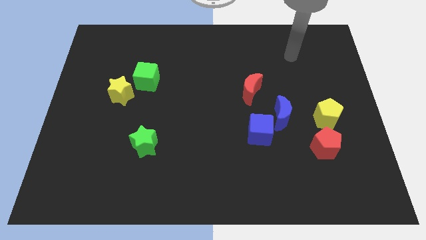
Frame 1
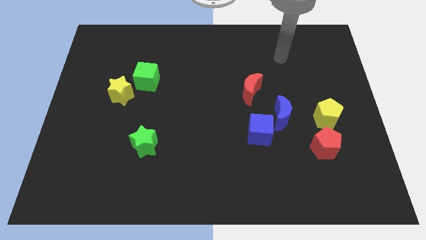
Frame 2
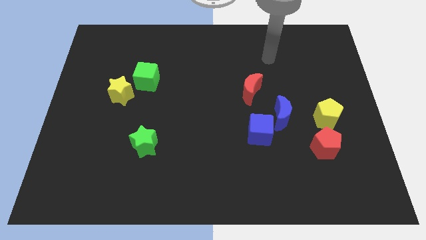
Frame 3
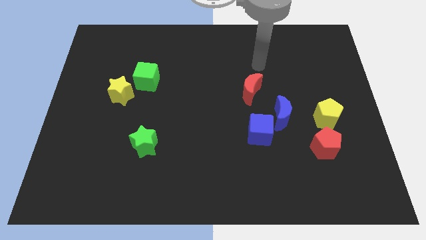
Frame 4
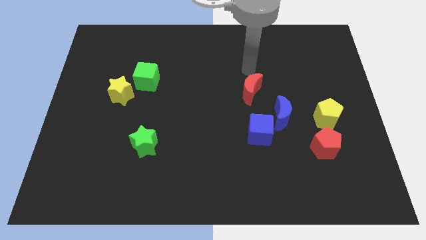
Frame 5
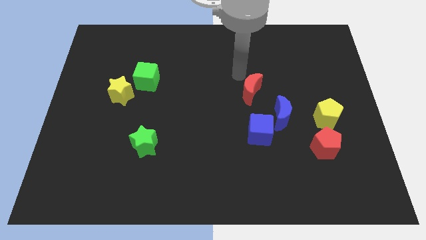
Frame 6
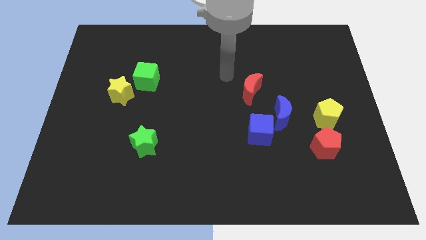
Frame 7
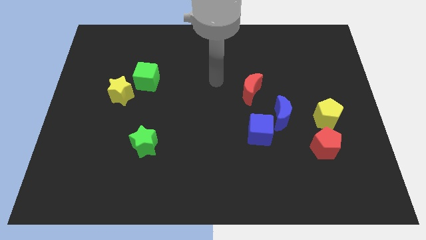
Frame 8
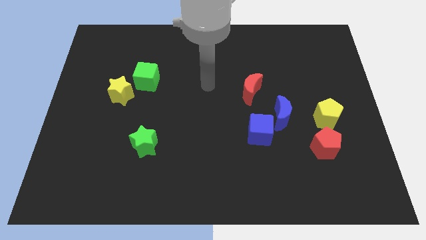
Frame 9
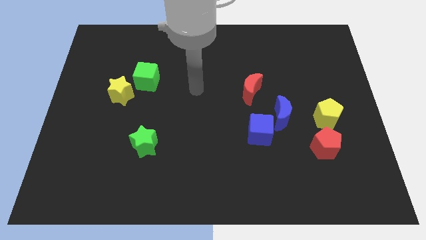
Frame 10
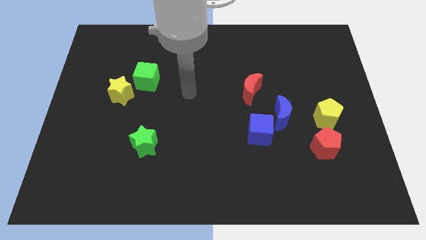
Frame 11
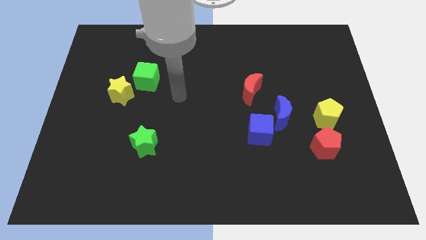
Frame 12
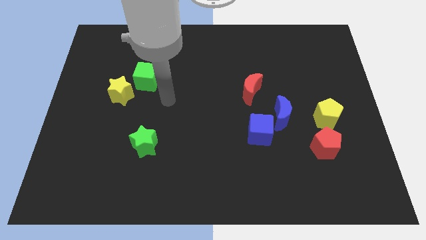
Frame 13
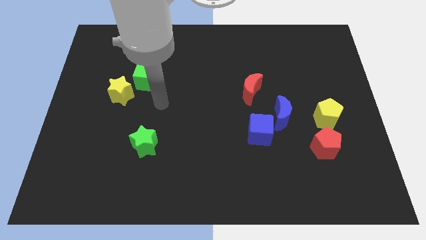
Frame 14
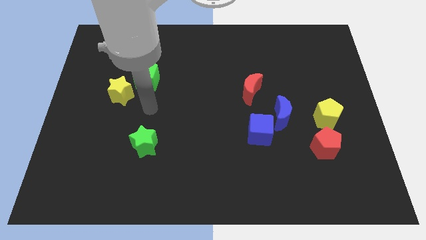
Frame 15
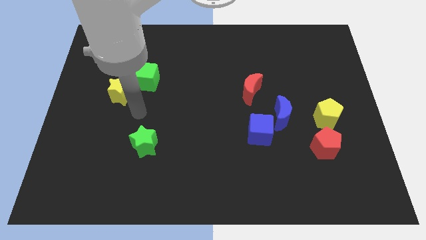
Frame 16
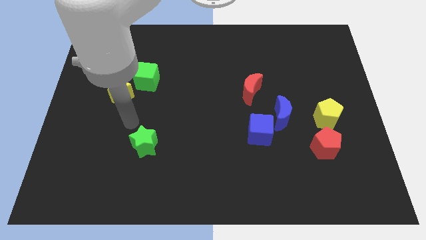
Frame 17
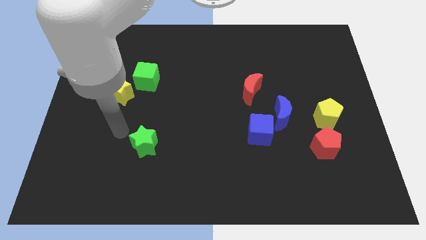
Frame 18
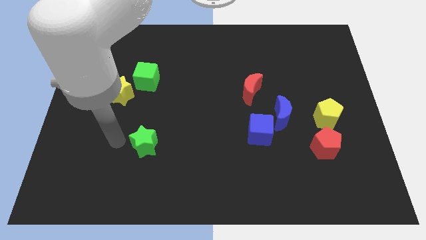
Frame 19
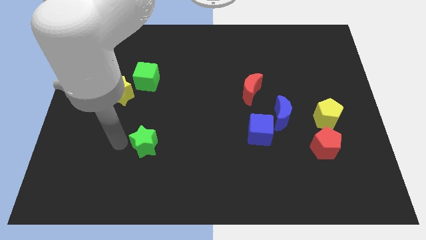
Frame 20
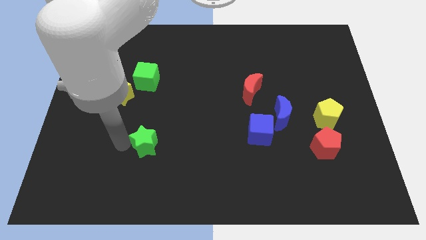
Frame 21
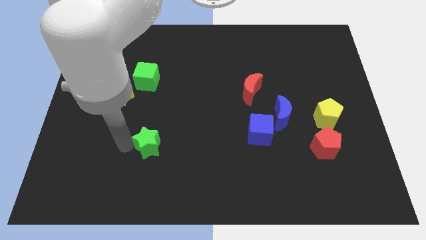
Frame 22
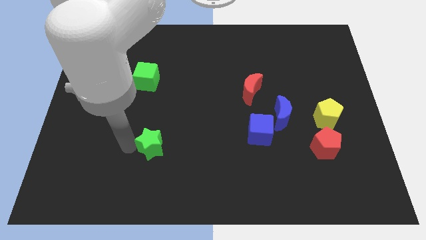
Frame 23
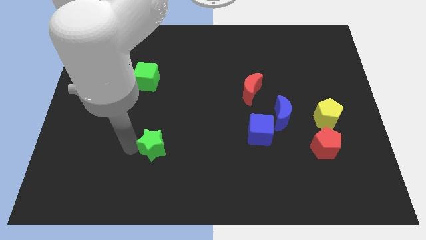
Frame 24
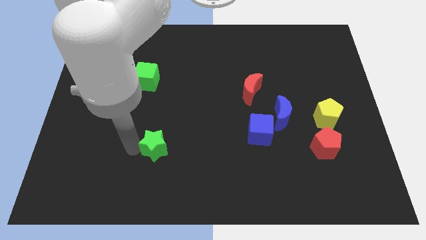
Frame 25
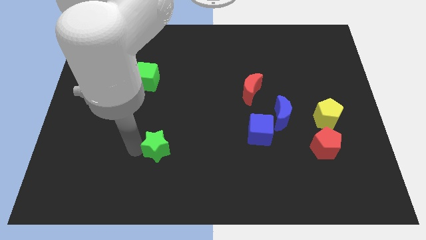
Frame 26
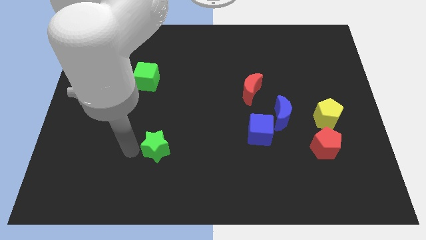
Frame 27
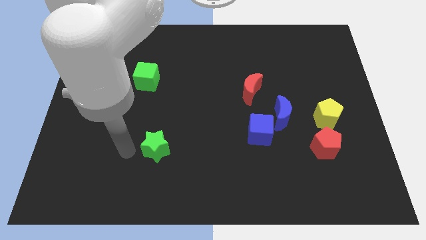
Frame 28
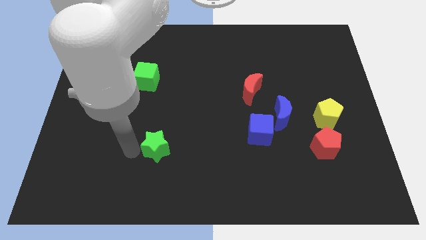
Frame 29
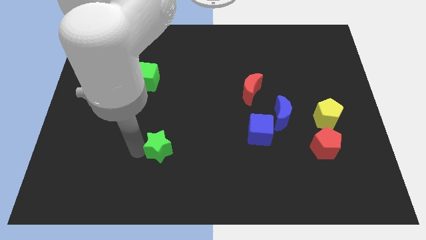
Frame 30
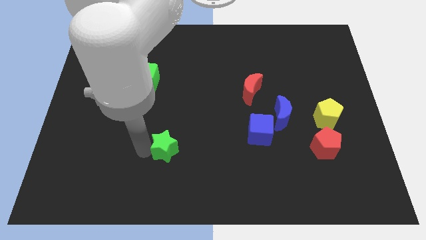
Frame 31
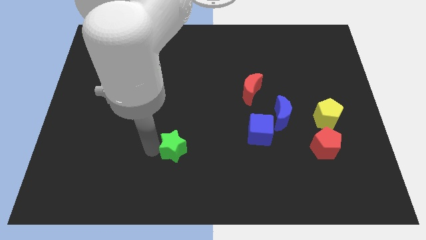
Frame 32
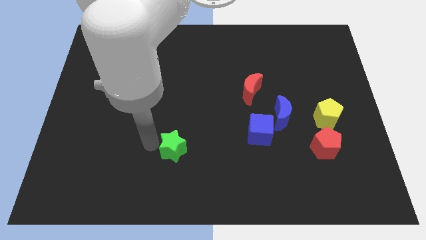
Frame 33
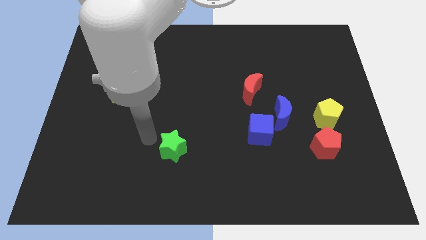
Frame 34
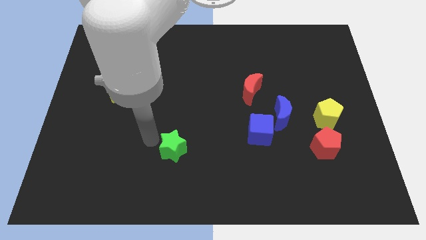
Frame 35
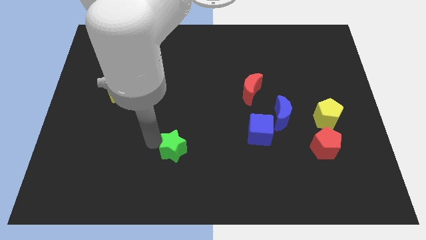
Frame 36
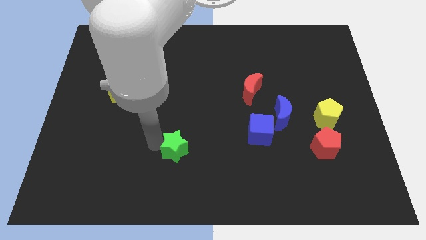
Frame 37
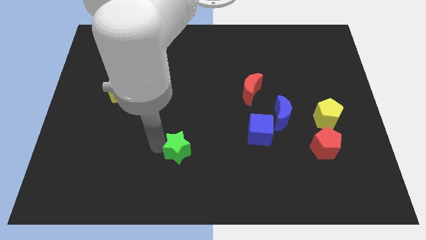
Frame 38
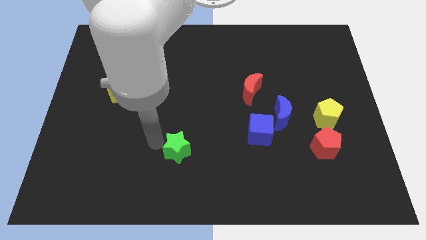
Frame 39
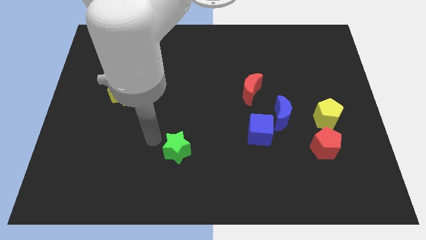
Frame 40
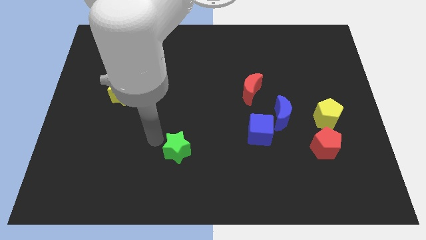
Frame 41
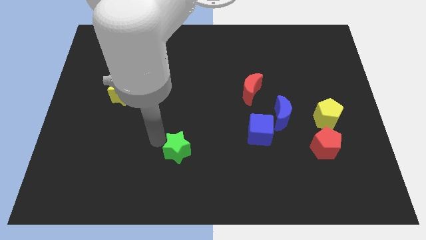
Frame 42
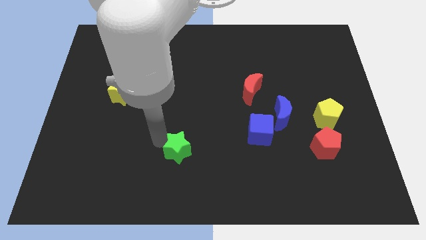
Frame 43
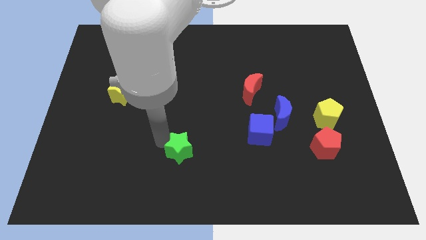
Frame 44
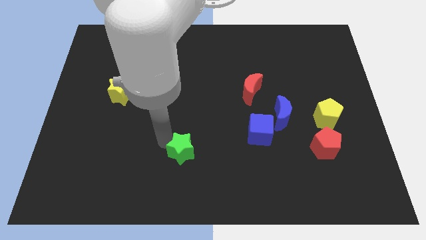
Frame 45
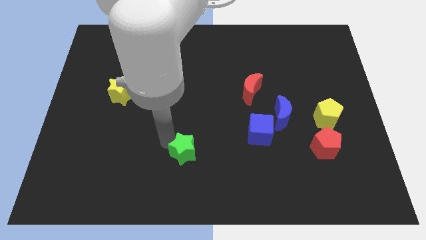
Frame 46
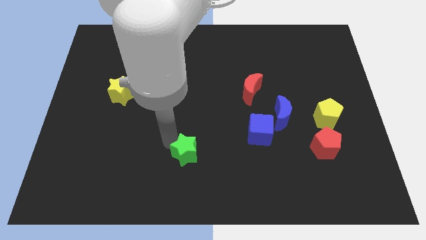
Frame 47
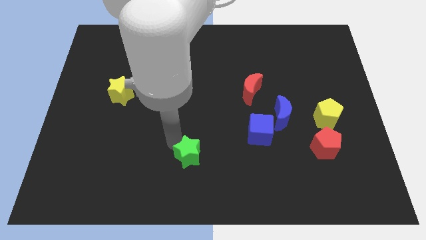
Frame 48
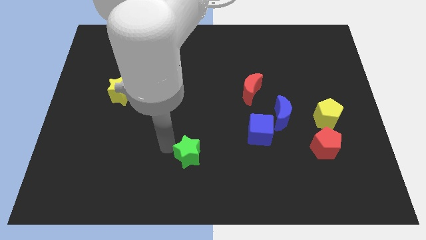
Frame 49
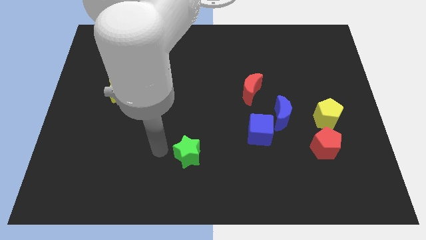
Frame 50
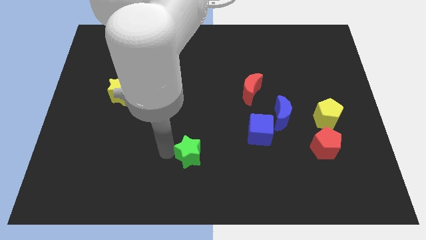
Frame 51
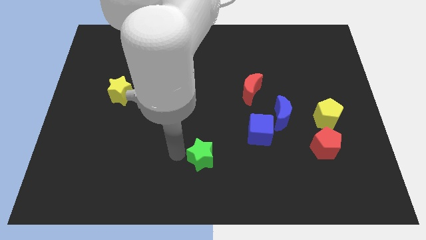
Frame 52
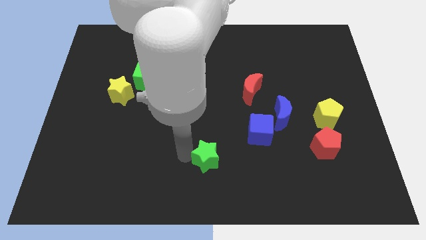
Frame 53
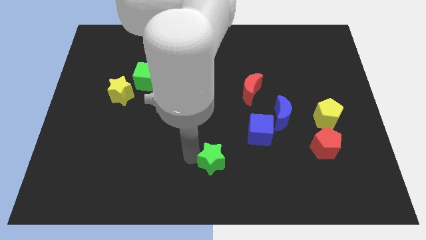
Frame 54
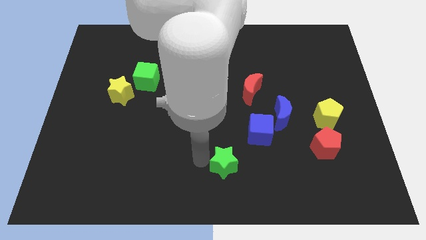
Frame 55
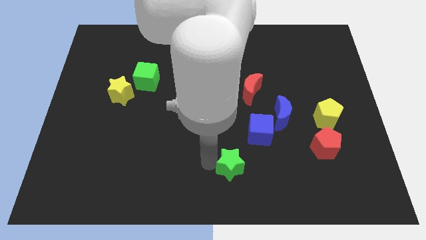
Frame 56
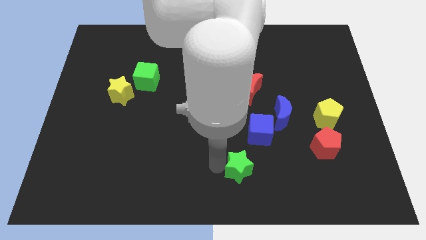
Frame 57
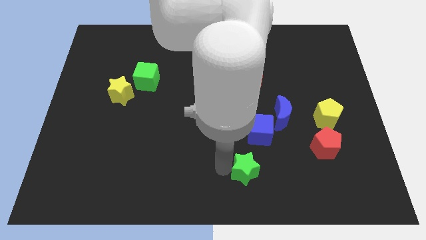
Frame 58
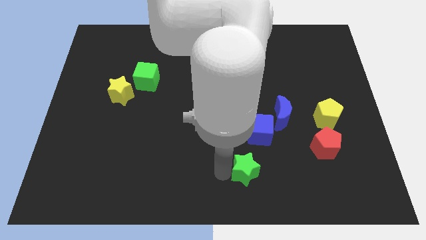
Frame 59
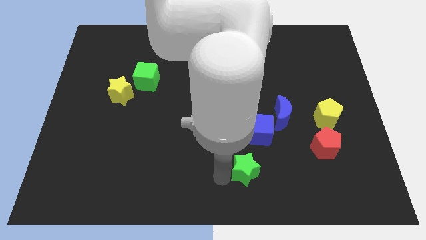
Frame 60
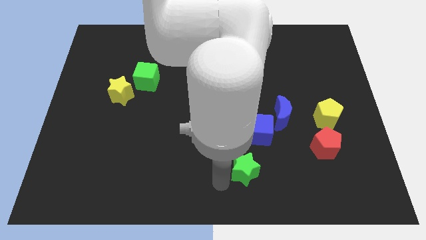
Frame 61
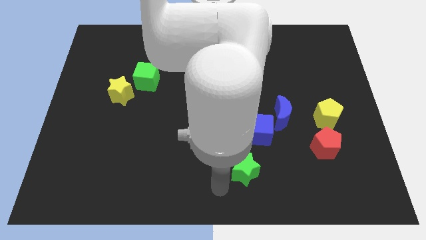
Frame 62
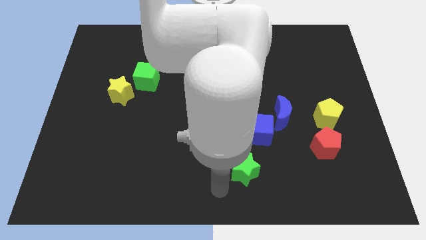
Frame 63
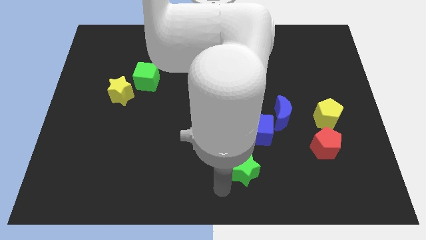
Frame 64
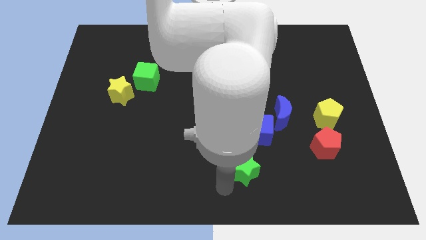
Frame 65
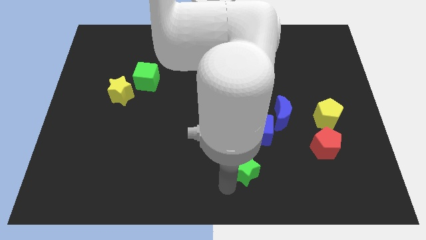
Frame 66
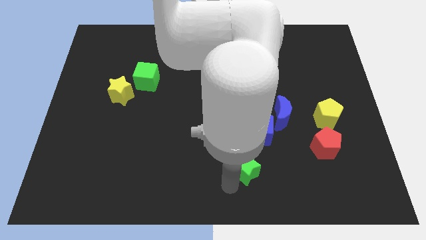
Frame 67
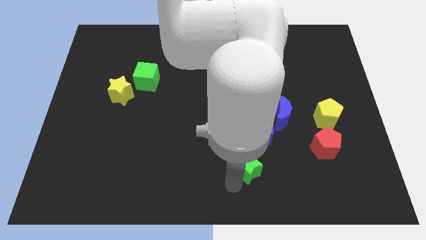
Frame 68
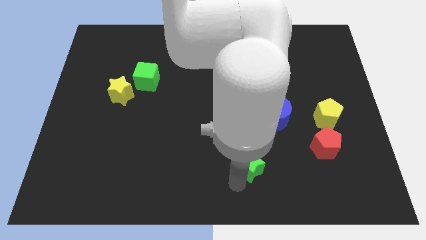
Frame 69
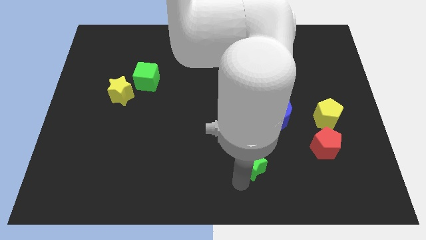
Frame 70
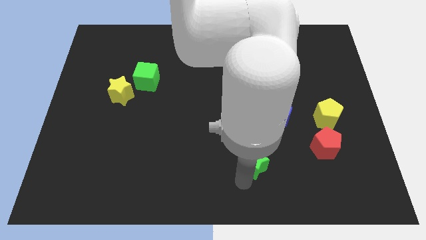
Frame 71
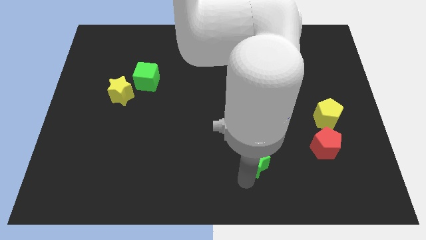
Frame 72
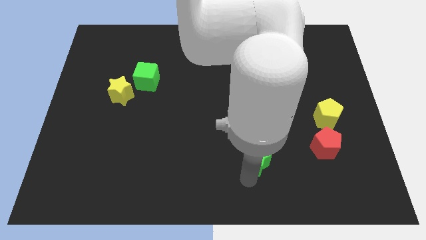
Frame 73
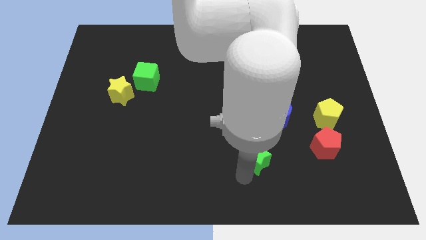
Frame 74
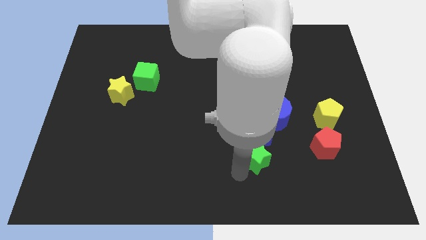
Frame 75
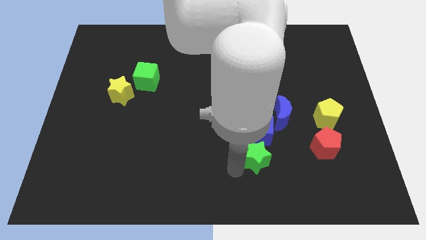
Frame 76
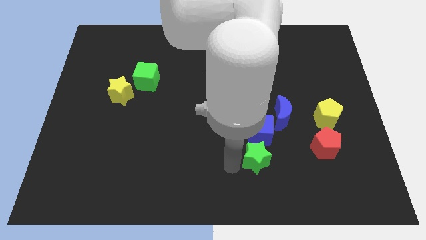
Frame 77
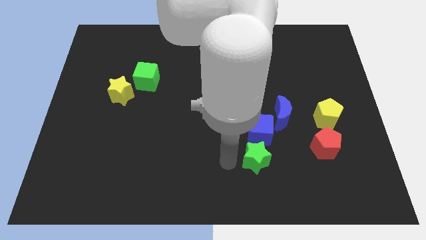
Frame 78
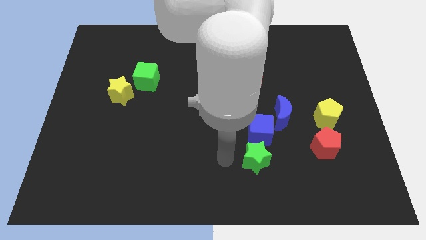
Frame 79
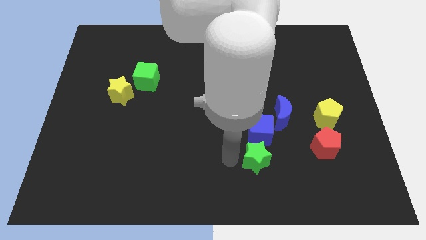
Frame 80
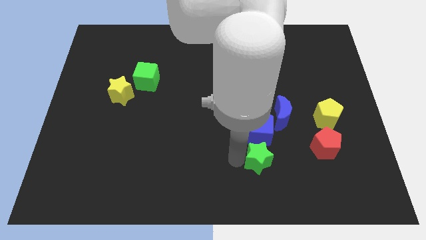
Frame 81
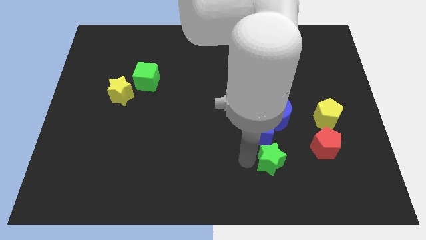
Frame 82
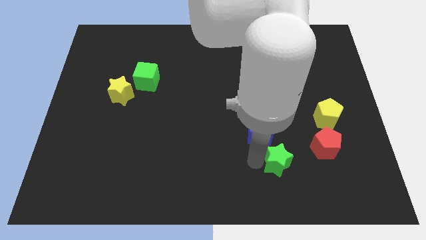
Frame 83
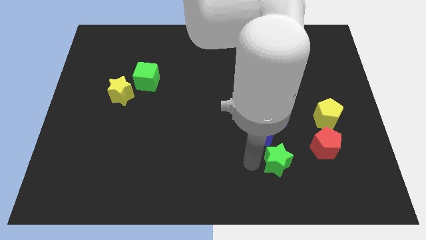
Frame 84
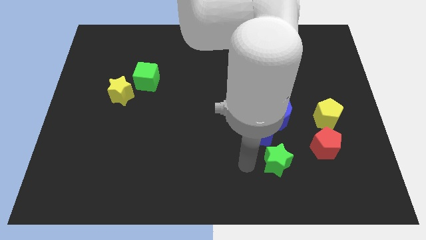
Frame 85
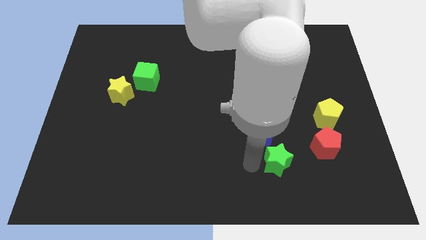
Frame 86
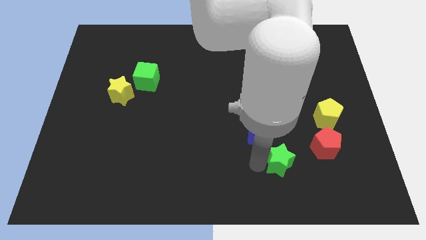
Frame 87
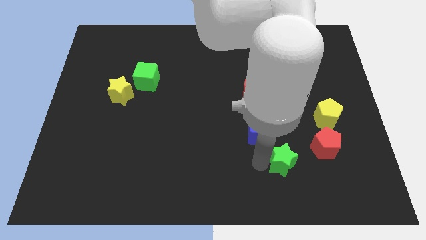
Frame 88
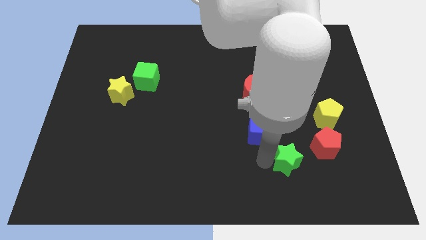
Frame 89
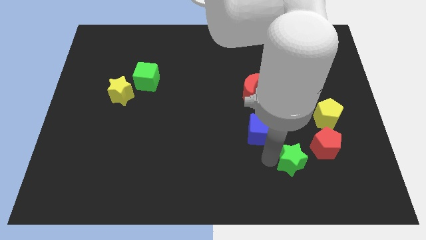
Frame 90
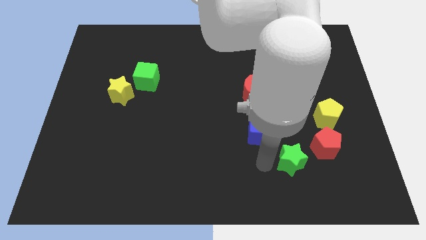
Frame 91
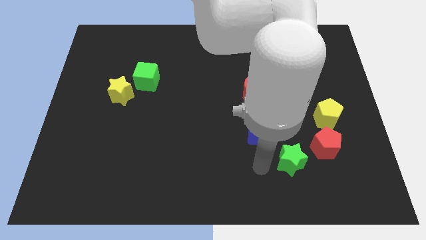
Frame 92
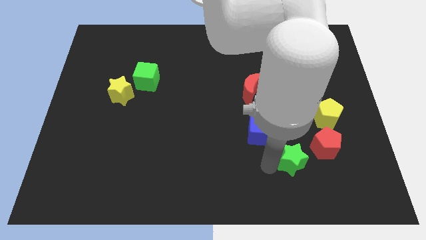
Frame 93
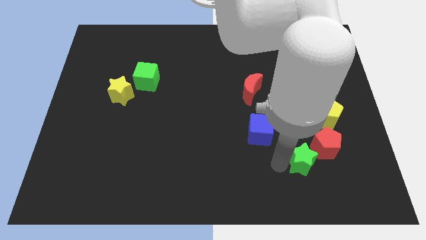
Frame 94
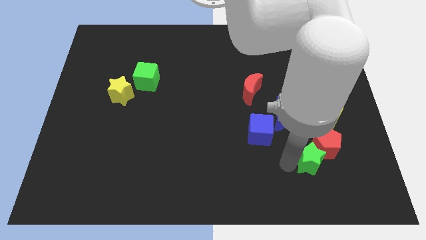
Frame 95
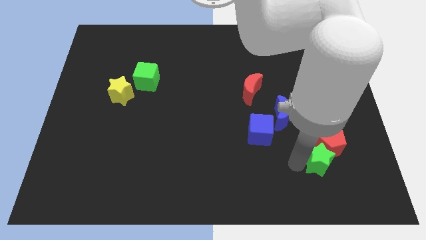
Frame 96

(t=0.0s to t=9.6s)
slide the green star below the yellow pentagon
